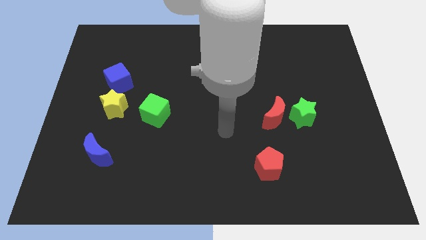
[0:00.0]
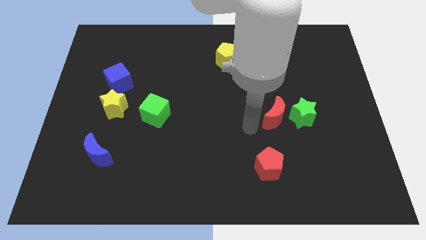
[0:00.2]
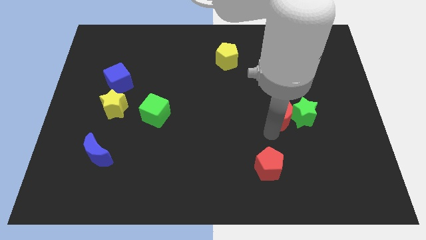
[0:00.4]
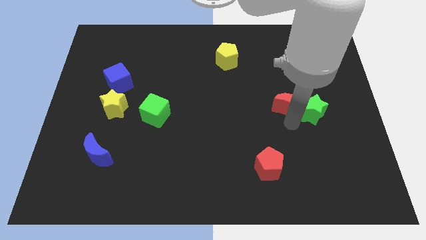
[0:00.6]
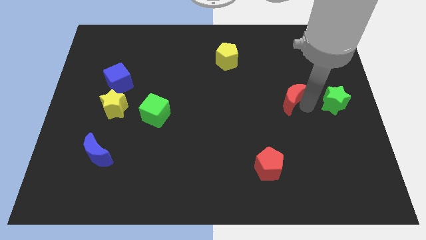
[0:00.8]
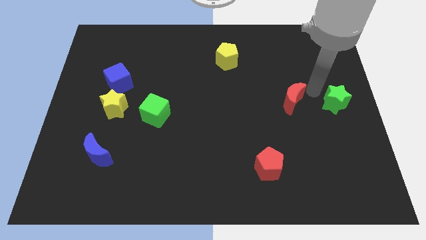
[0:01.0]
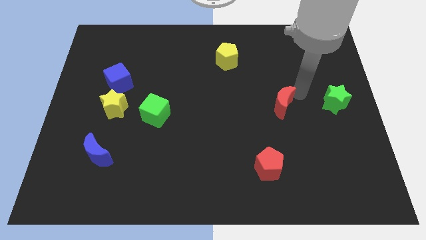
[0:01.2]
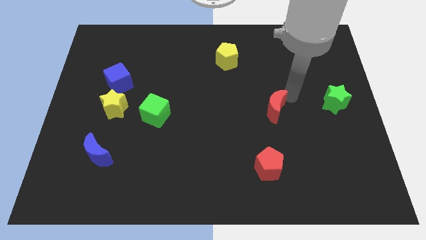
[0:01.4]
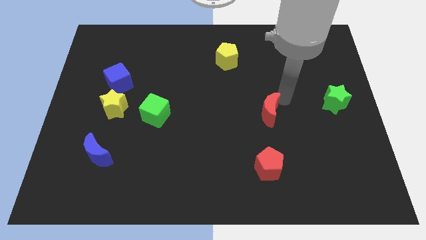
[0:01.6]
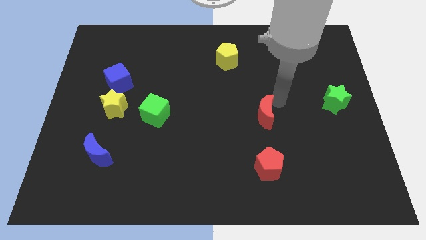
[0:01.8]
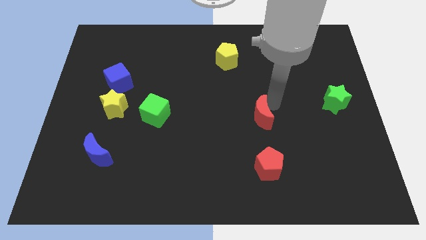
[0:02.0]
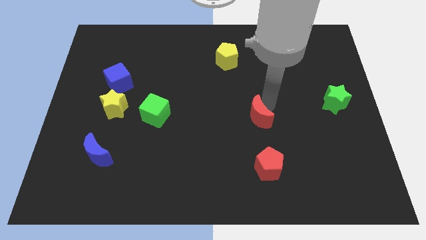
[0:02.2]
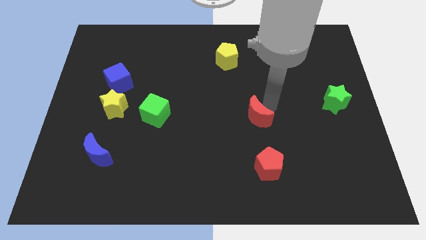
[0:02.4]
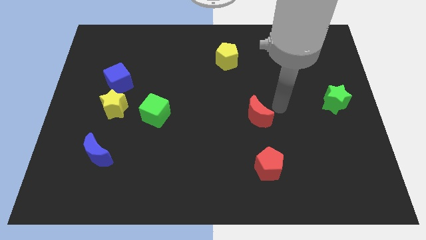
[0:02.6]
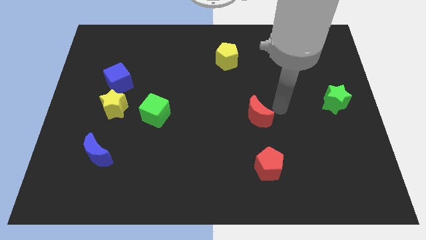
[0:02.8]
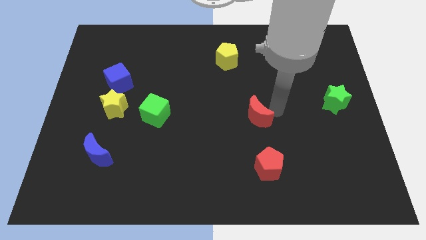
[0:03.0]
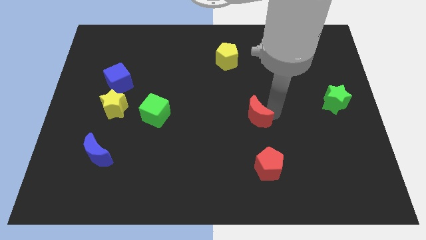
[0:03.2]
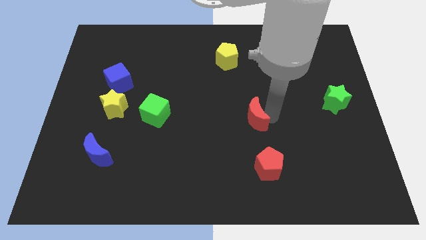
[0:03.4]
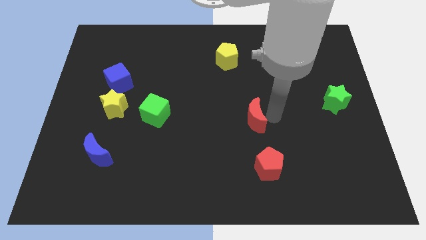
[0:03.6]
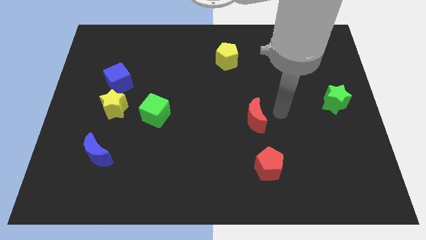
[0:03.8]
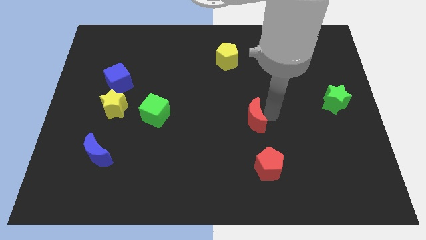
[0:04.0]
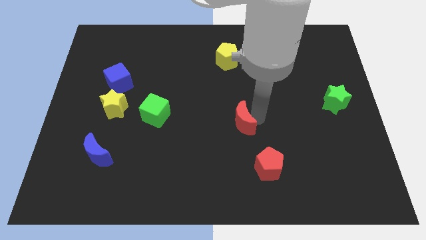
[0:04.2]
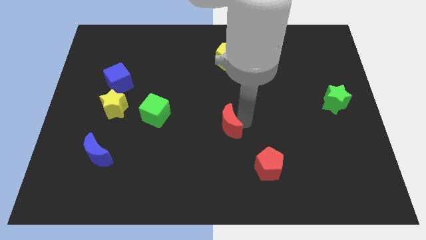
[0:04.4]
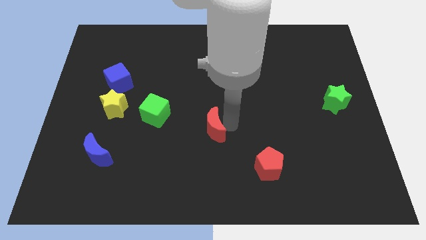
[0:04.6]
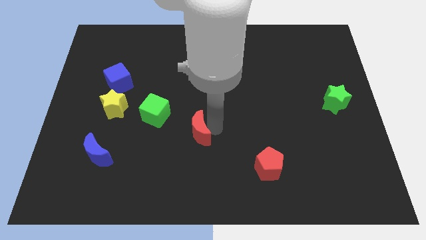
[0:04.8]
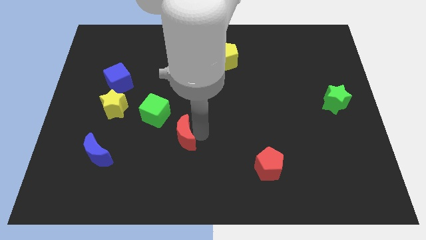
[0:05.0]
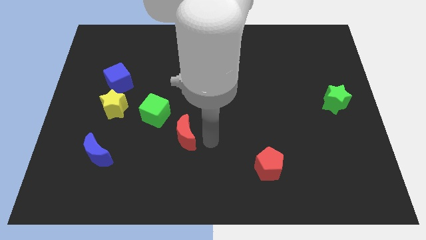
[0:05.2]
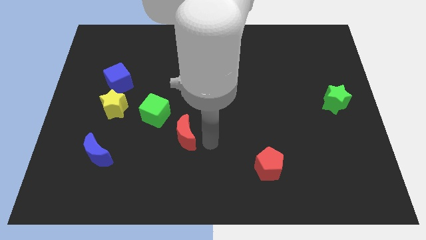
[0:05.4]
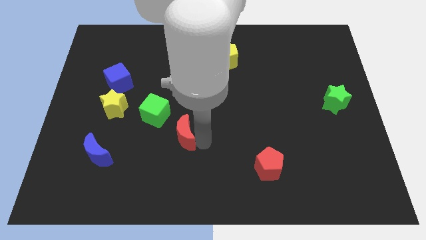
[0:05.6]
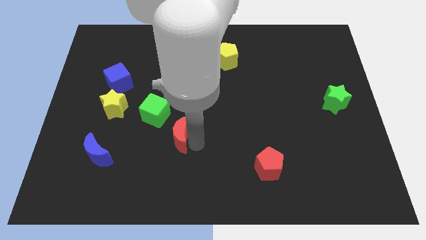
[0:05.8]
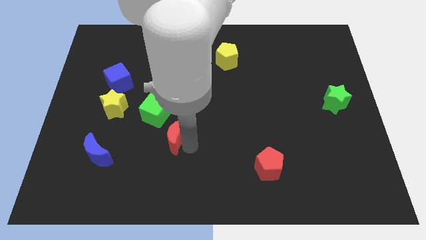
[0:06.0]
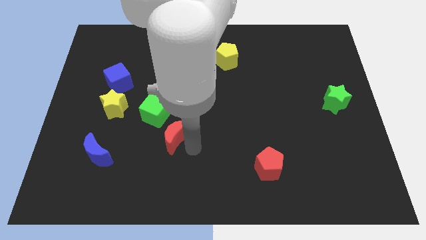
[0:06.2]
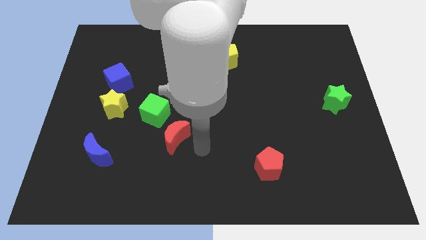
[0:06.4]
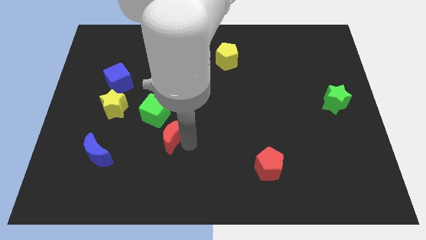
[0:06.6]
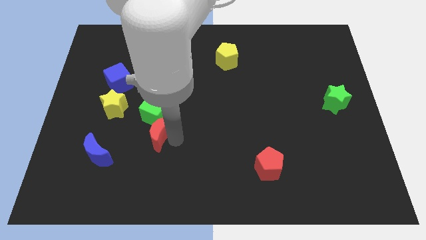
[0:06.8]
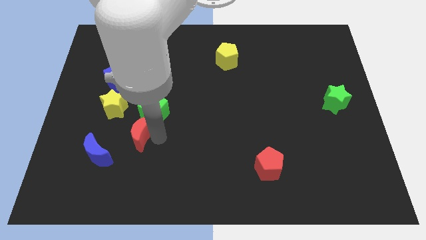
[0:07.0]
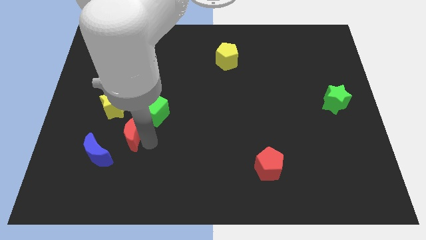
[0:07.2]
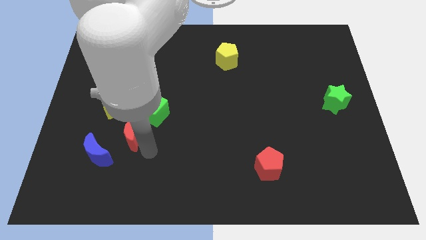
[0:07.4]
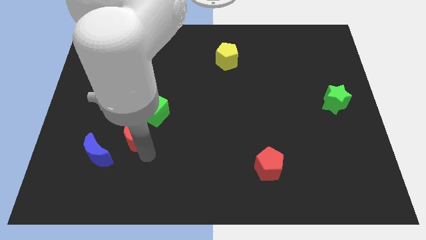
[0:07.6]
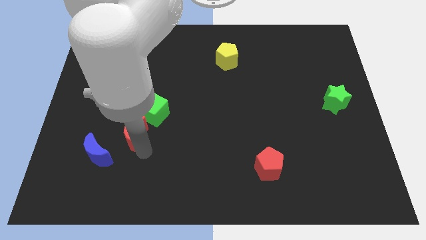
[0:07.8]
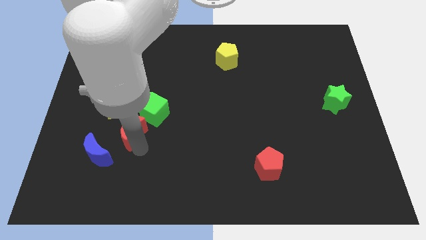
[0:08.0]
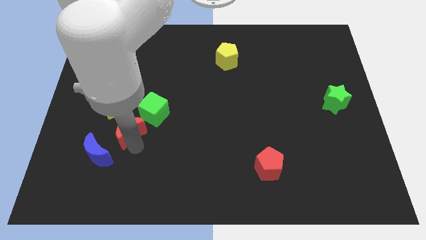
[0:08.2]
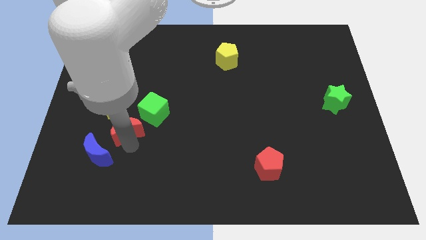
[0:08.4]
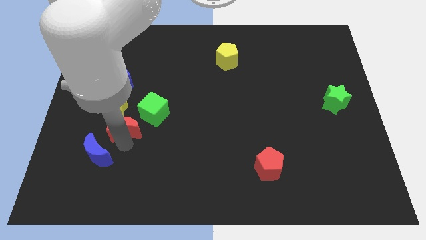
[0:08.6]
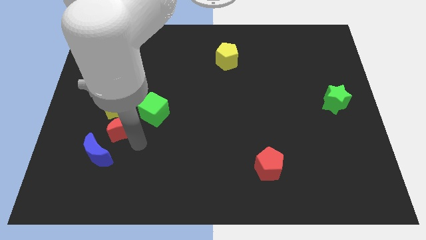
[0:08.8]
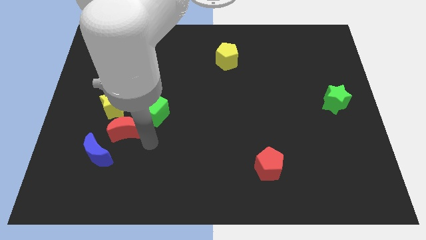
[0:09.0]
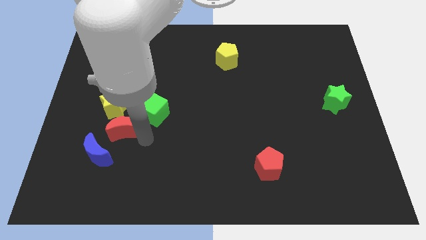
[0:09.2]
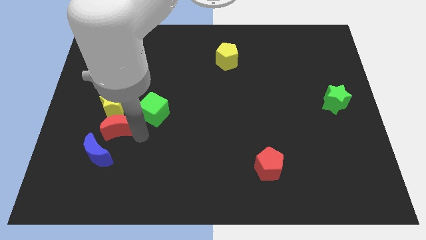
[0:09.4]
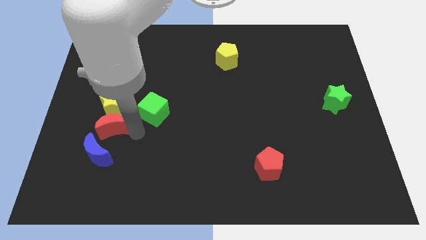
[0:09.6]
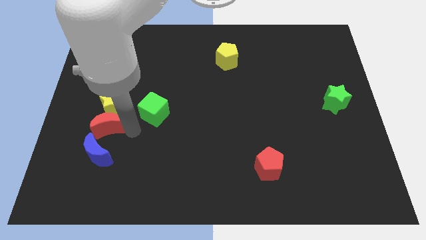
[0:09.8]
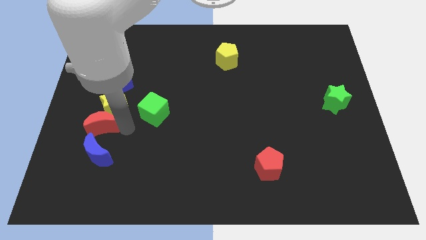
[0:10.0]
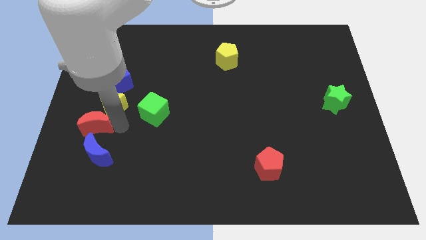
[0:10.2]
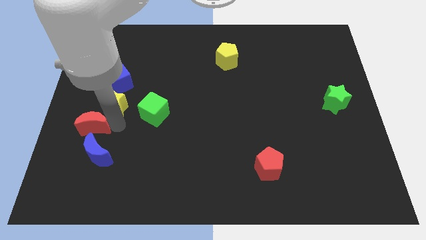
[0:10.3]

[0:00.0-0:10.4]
move the red moon to the left side
